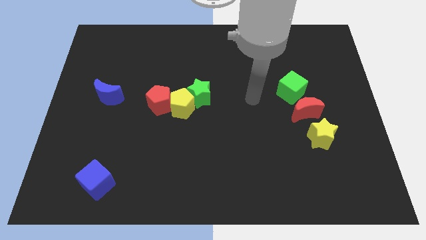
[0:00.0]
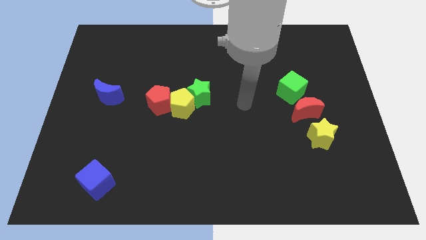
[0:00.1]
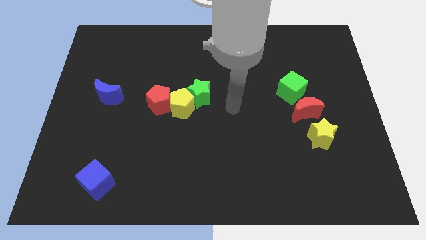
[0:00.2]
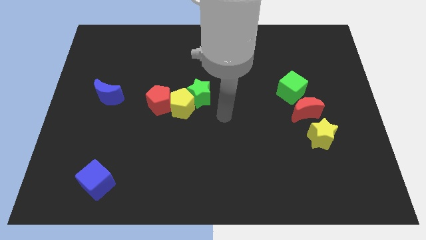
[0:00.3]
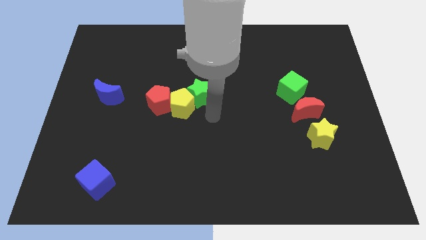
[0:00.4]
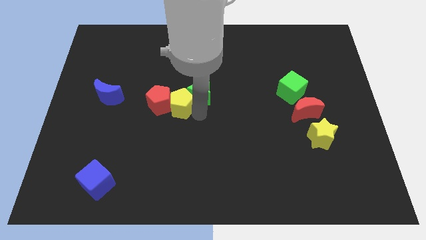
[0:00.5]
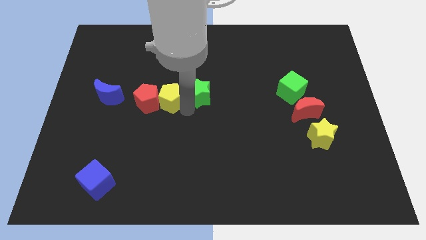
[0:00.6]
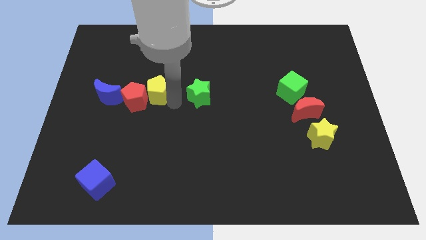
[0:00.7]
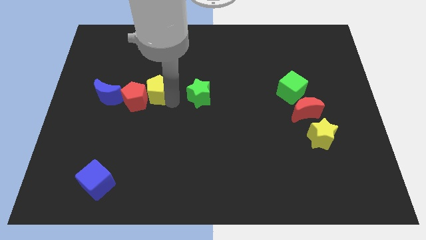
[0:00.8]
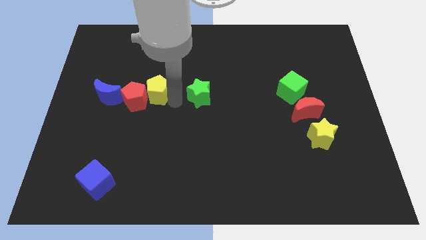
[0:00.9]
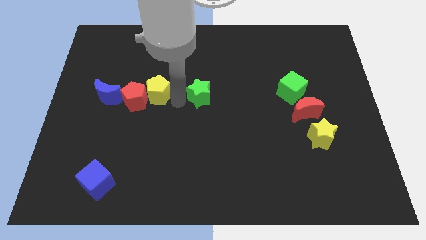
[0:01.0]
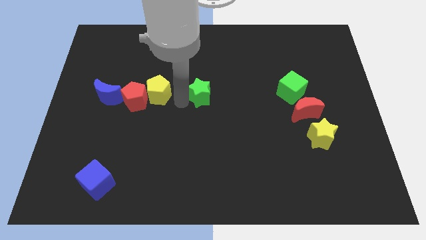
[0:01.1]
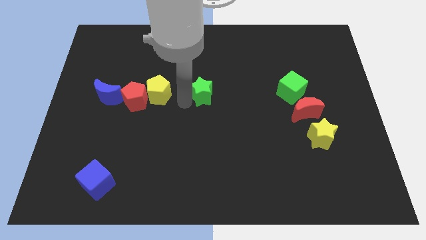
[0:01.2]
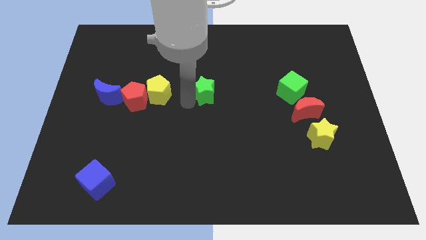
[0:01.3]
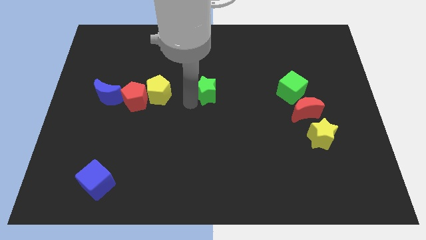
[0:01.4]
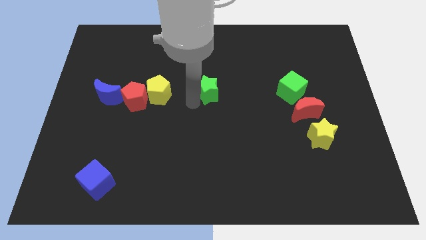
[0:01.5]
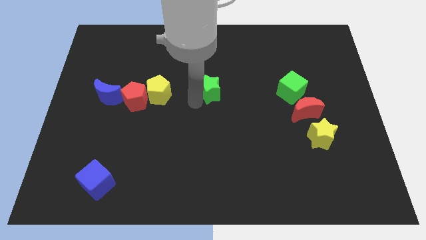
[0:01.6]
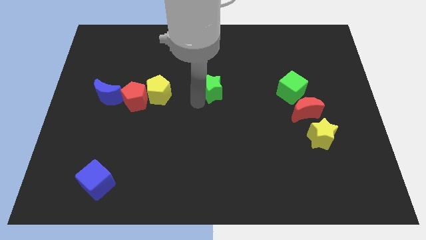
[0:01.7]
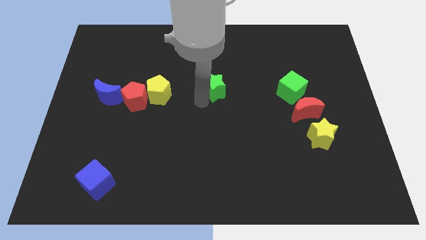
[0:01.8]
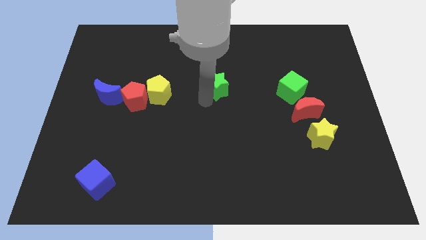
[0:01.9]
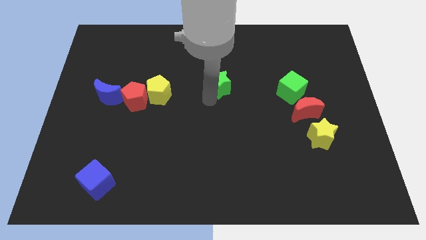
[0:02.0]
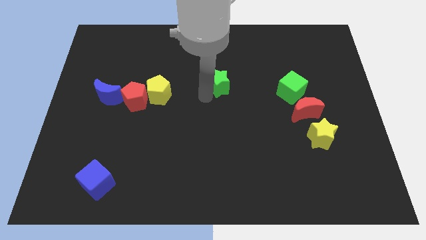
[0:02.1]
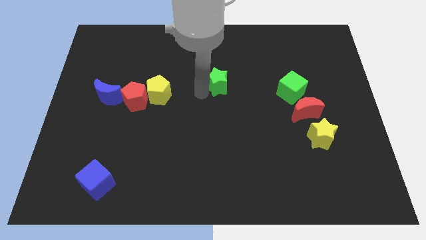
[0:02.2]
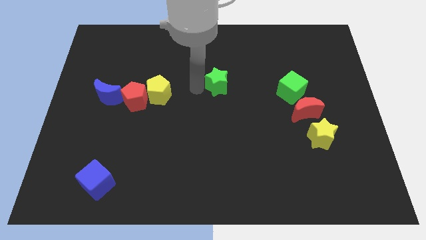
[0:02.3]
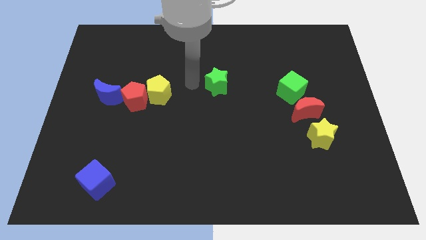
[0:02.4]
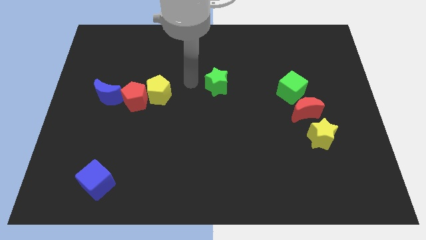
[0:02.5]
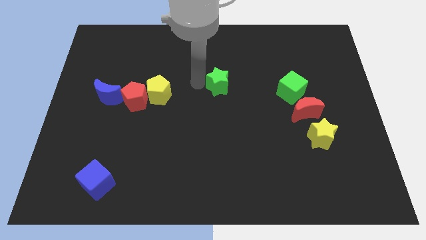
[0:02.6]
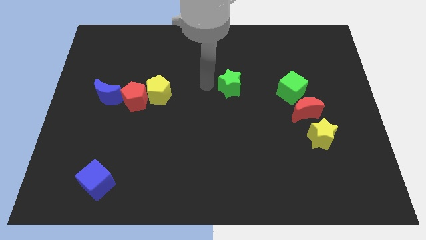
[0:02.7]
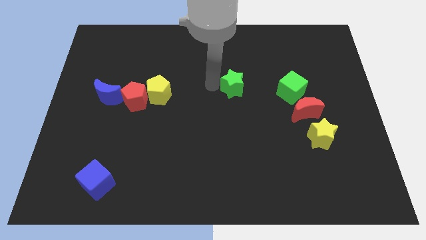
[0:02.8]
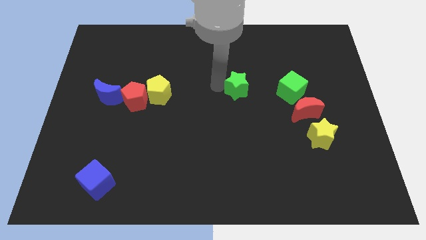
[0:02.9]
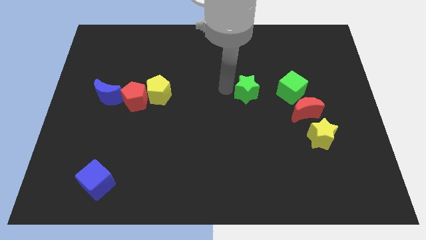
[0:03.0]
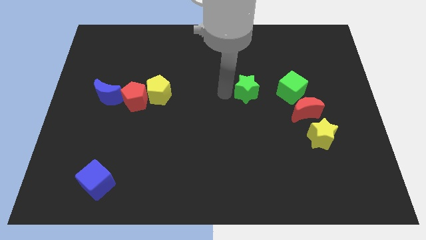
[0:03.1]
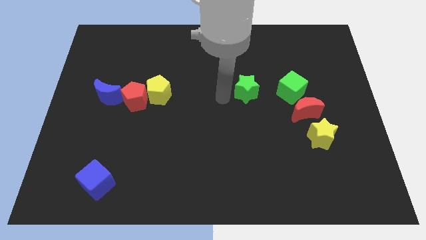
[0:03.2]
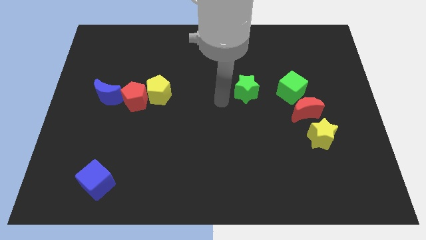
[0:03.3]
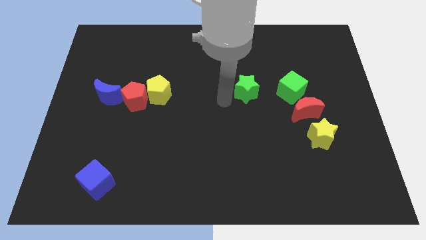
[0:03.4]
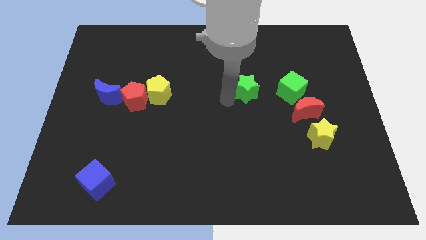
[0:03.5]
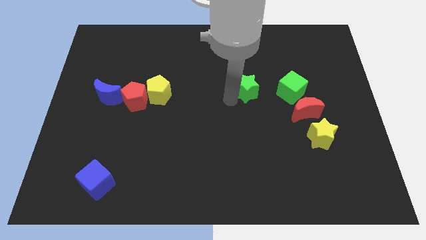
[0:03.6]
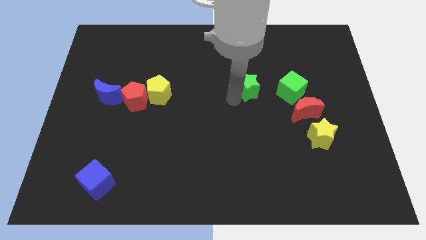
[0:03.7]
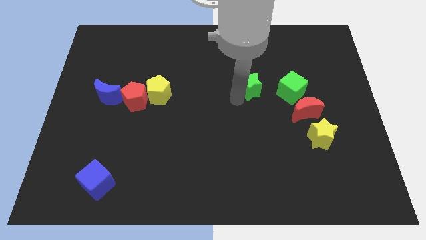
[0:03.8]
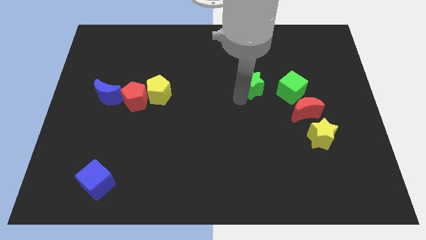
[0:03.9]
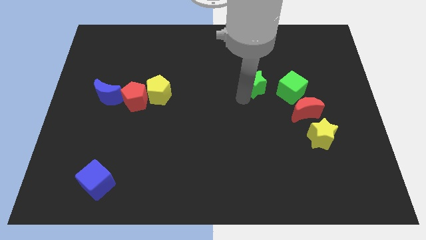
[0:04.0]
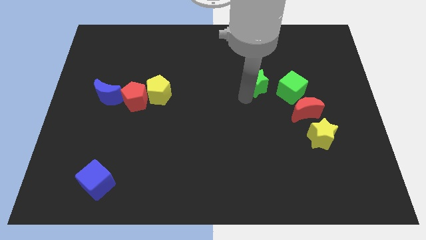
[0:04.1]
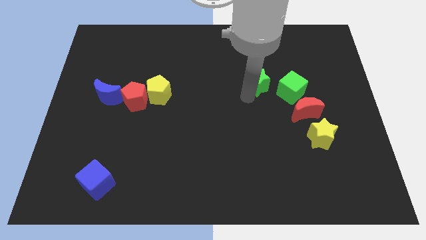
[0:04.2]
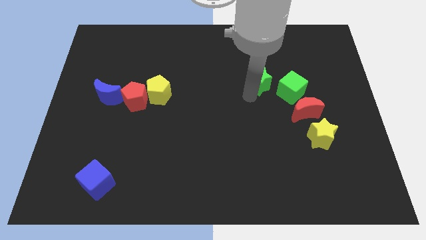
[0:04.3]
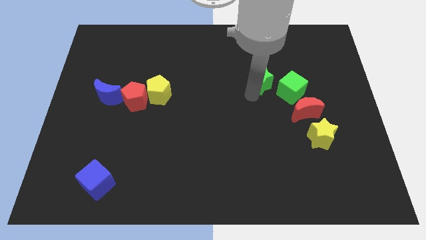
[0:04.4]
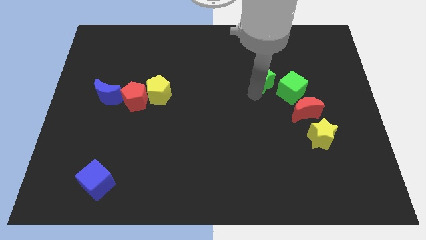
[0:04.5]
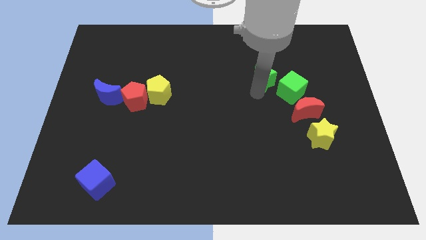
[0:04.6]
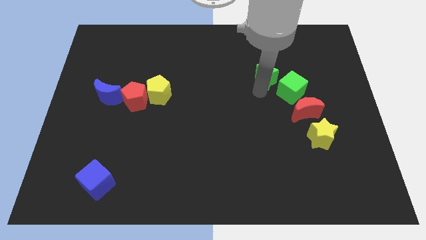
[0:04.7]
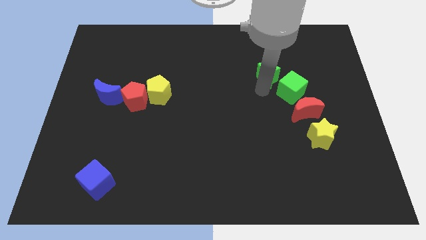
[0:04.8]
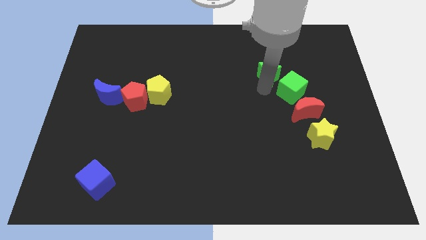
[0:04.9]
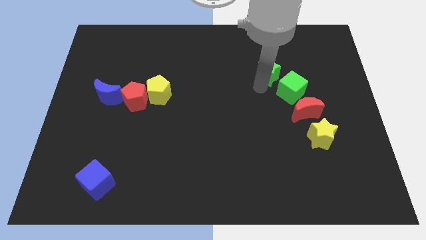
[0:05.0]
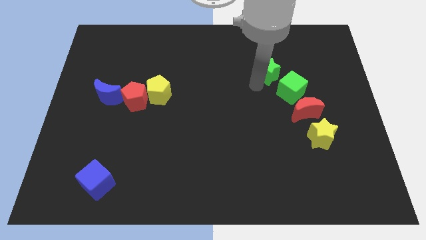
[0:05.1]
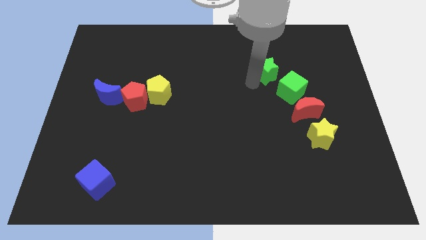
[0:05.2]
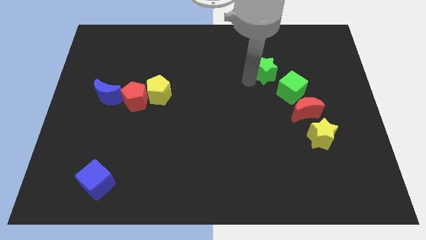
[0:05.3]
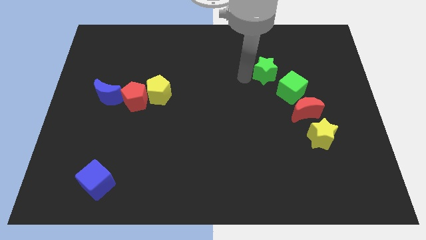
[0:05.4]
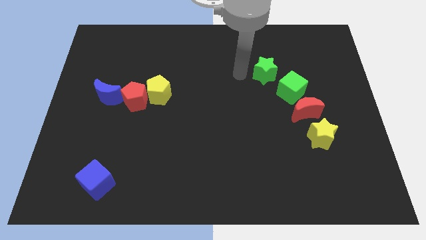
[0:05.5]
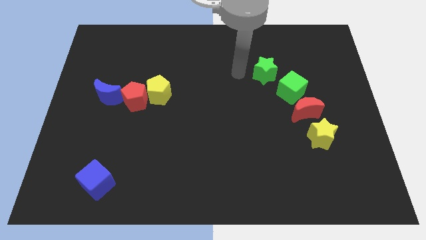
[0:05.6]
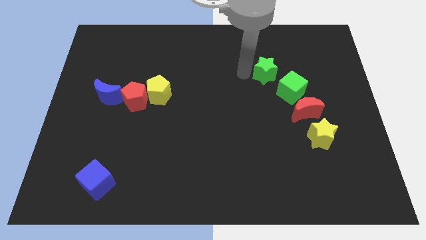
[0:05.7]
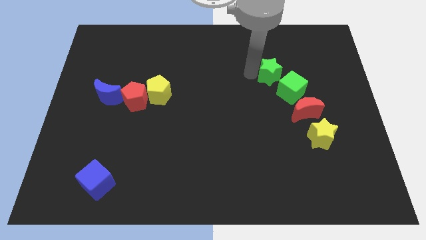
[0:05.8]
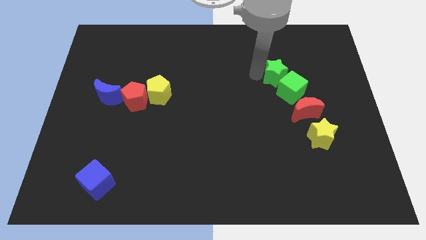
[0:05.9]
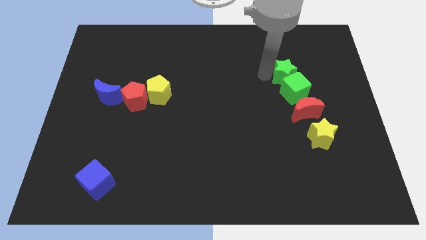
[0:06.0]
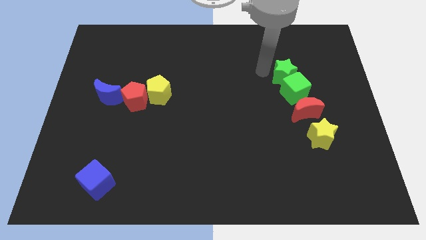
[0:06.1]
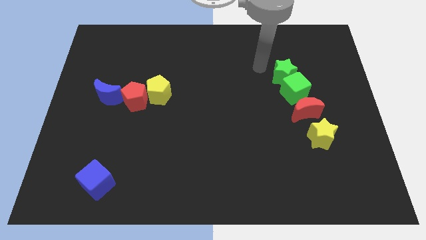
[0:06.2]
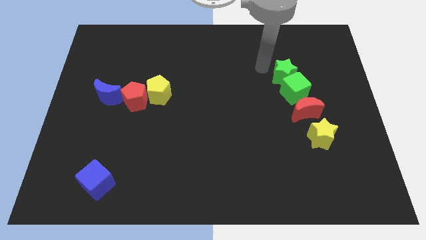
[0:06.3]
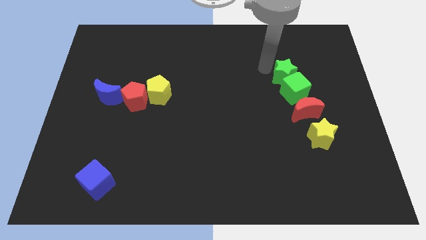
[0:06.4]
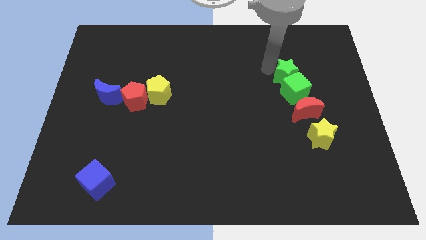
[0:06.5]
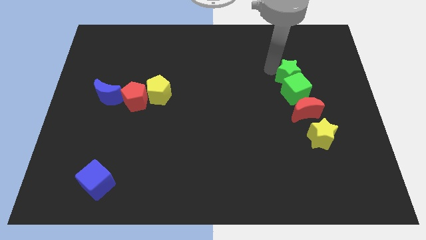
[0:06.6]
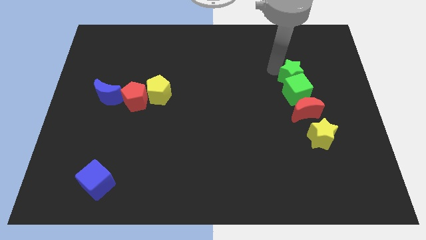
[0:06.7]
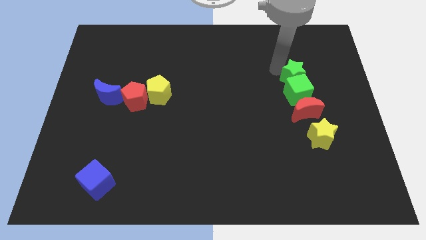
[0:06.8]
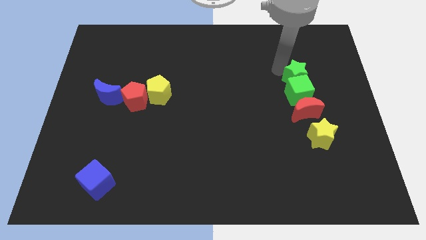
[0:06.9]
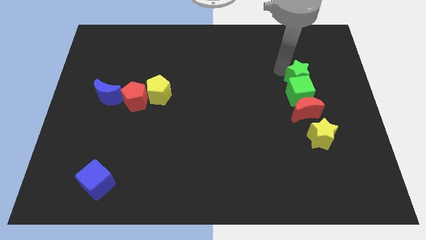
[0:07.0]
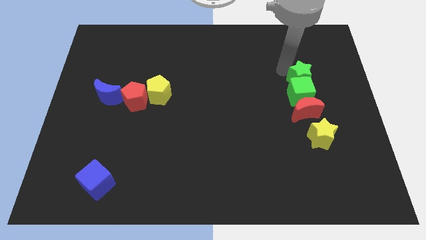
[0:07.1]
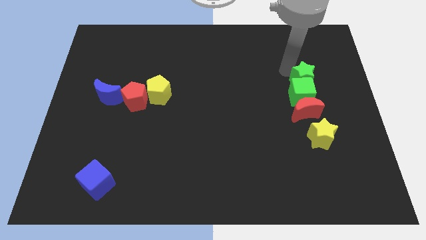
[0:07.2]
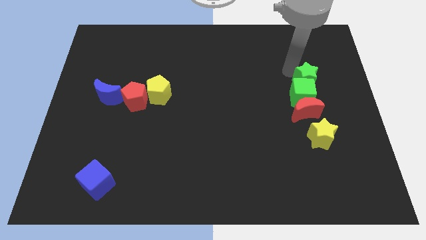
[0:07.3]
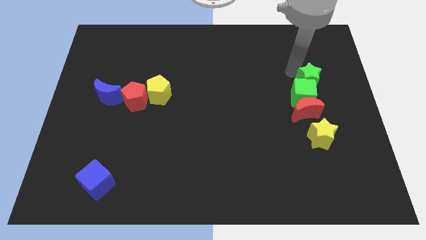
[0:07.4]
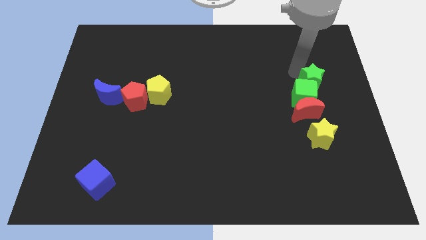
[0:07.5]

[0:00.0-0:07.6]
move the green star diagonally up and to the right of the red moon

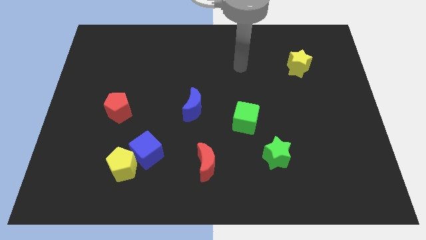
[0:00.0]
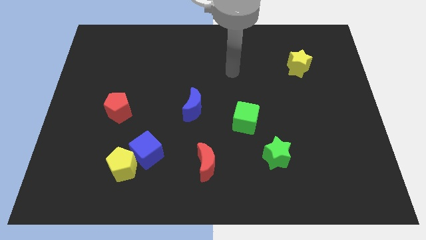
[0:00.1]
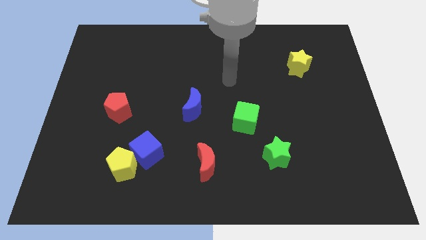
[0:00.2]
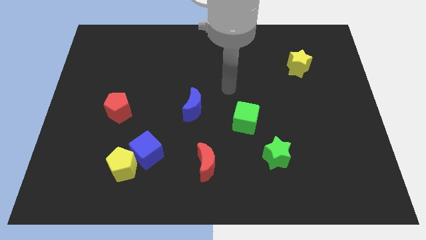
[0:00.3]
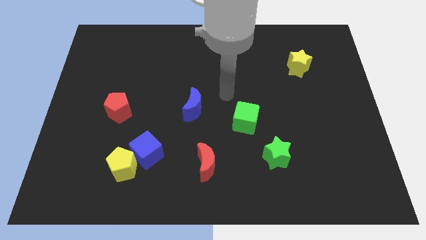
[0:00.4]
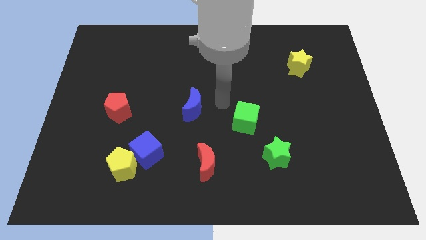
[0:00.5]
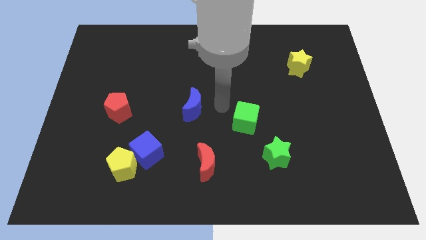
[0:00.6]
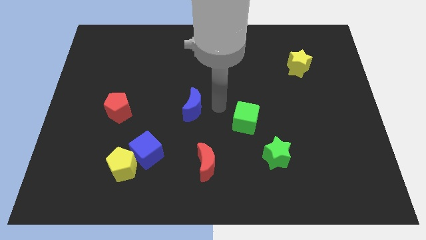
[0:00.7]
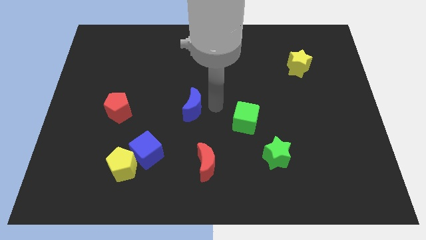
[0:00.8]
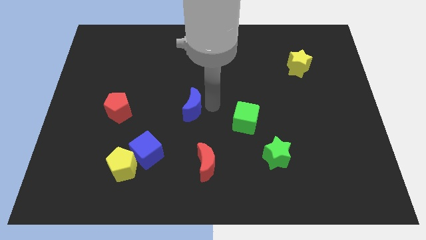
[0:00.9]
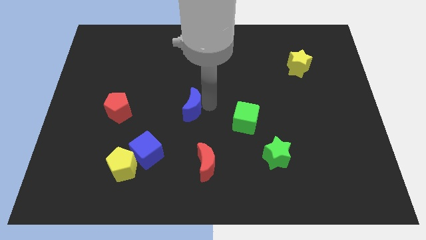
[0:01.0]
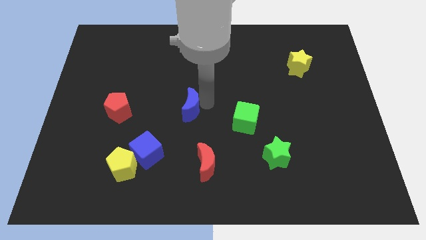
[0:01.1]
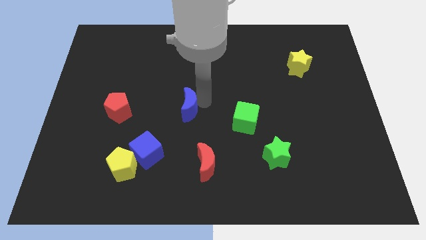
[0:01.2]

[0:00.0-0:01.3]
put the blue moon to the right of the red pentagon
